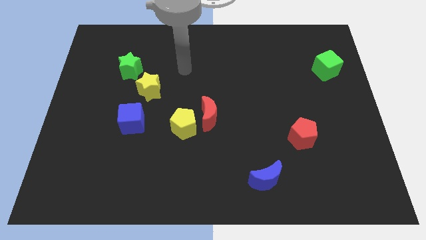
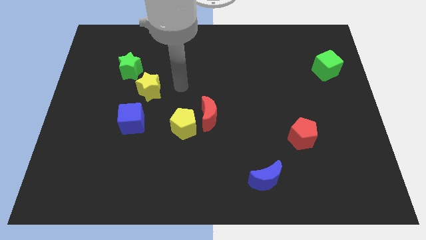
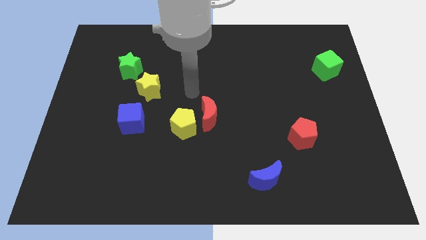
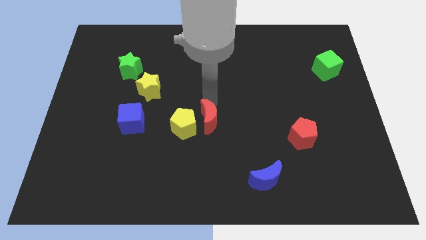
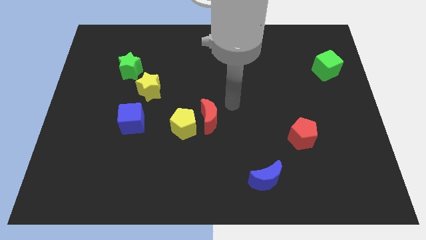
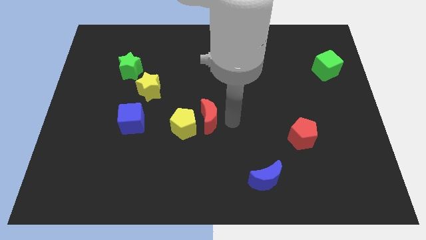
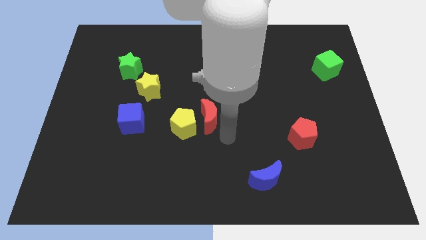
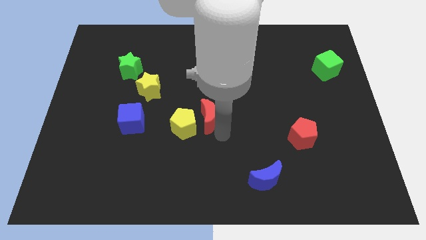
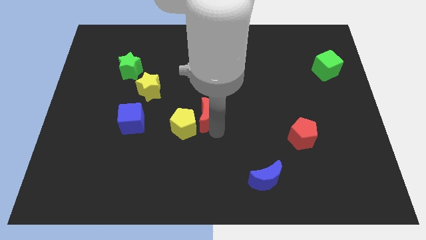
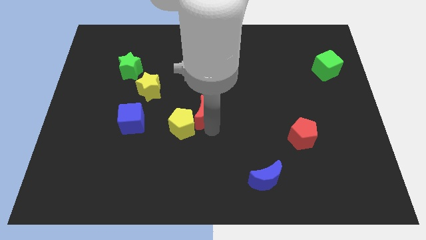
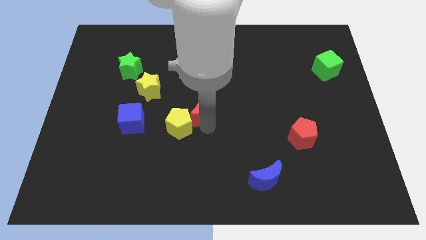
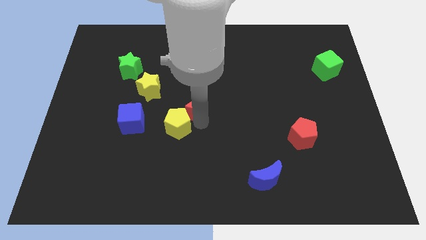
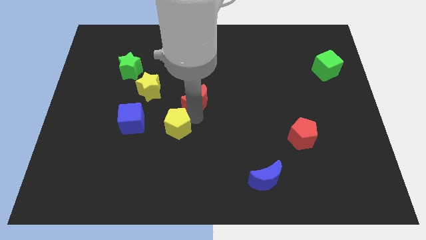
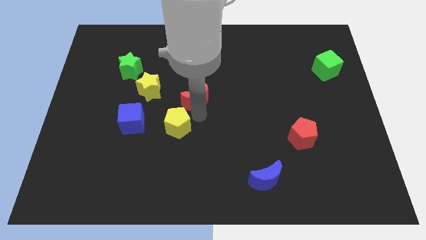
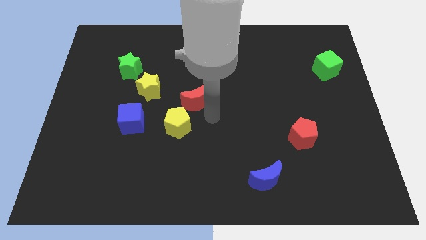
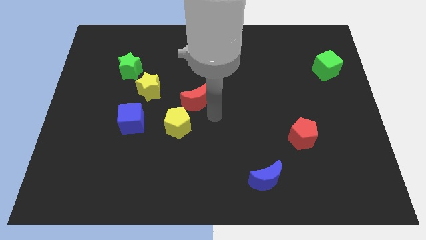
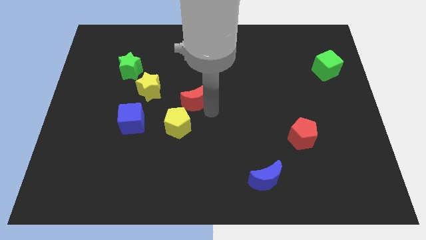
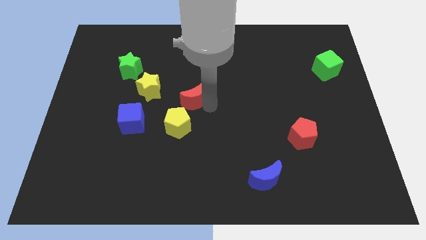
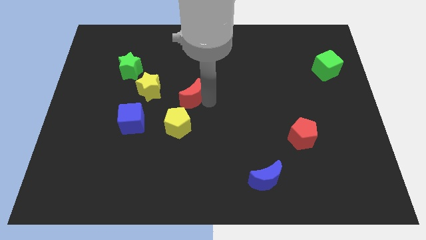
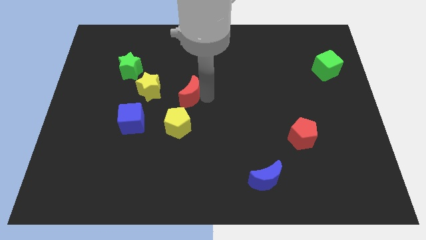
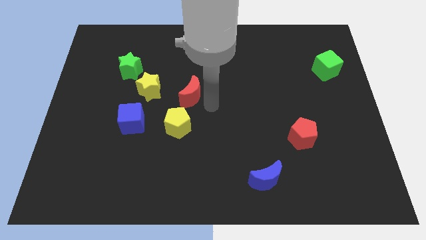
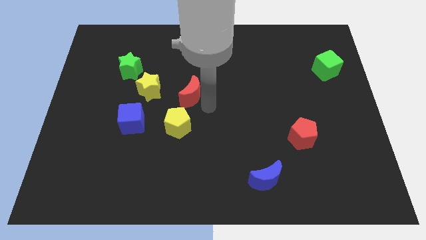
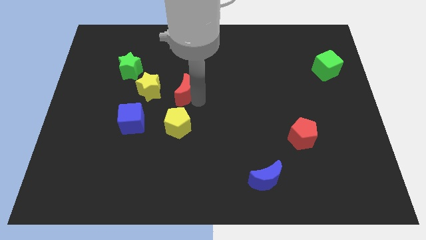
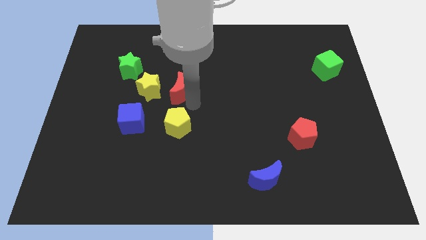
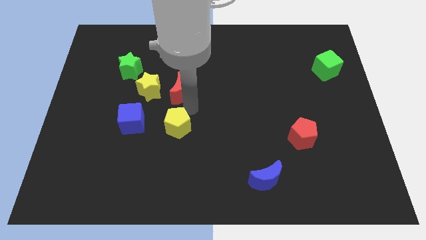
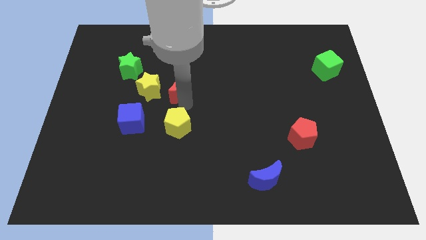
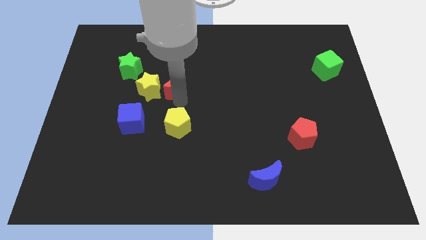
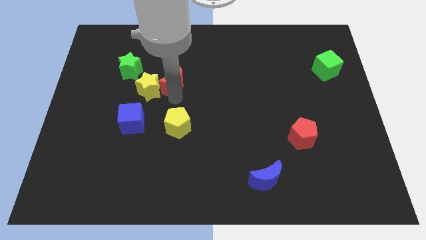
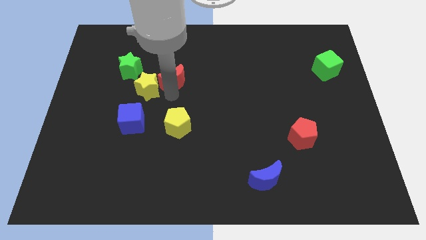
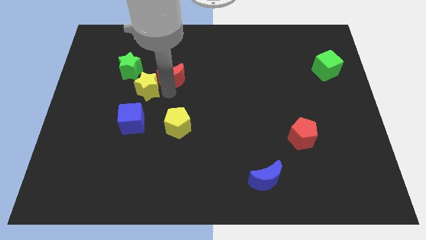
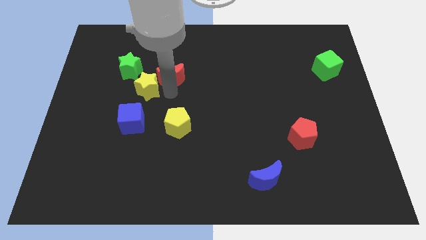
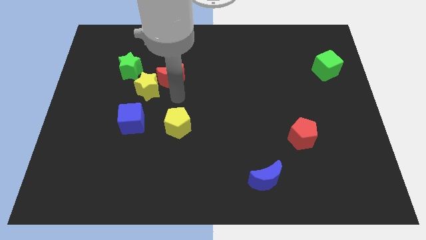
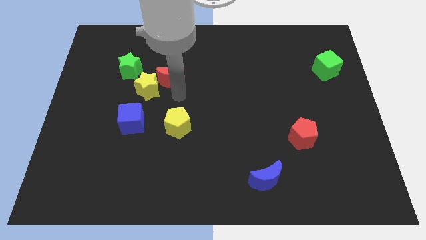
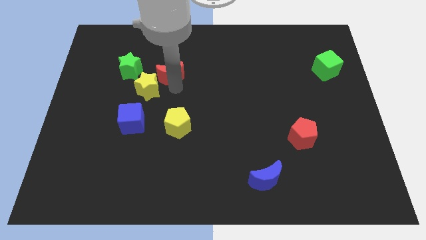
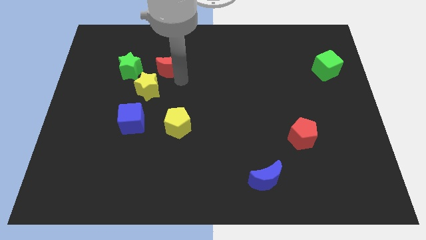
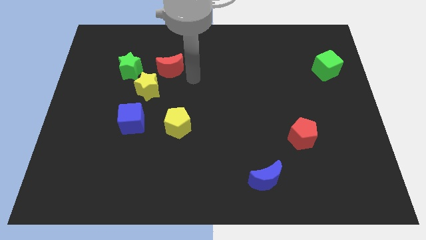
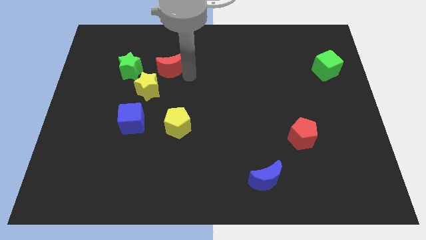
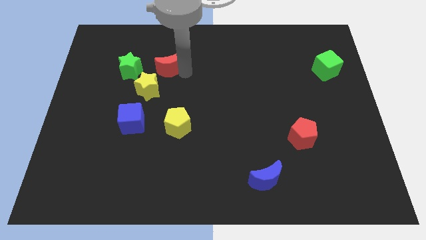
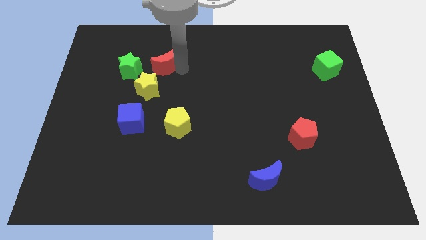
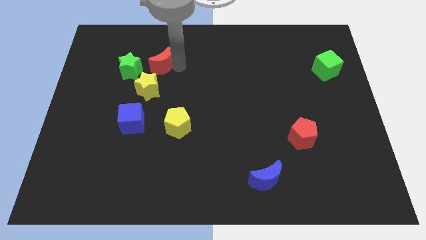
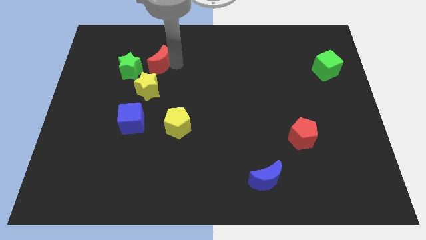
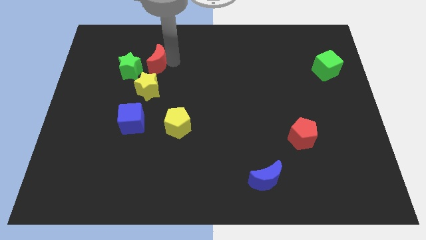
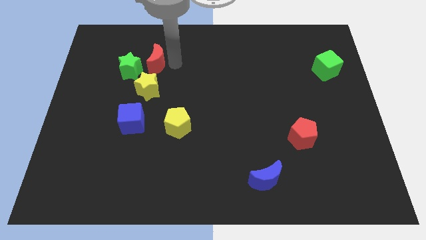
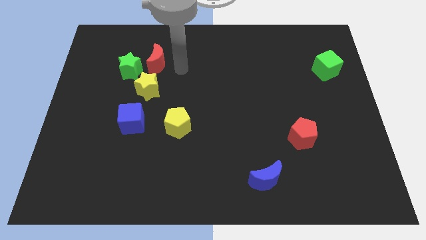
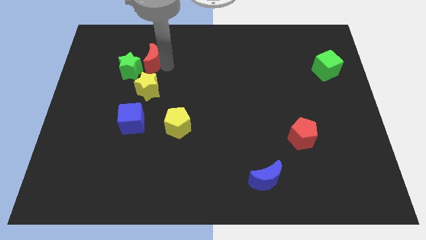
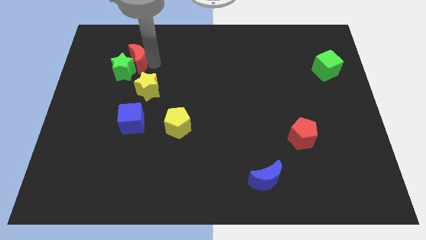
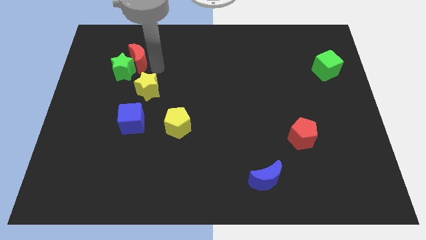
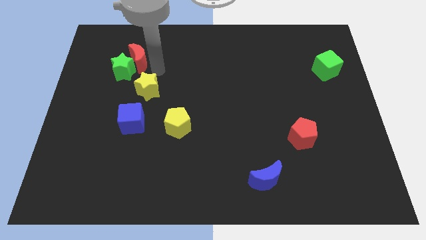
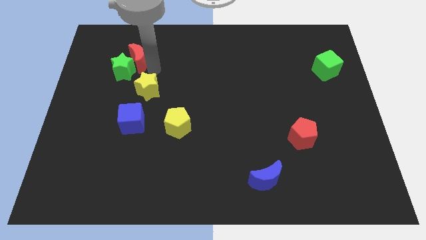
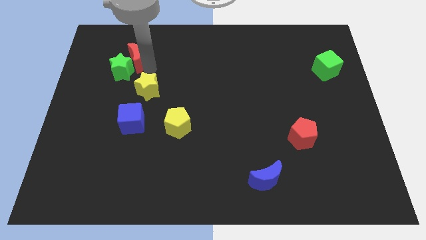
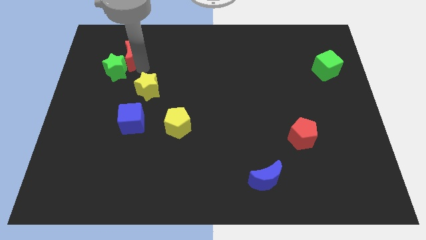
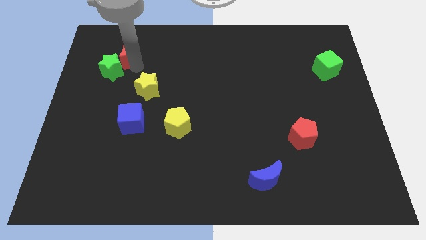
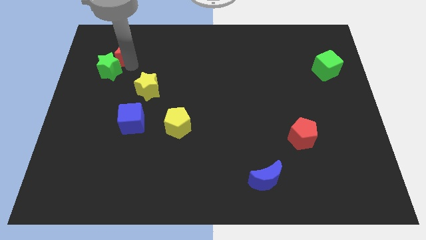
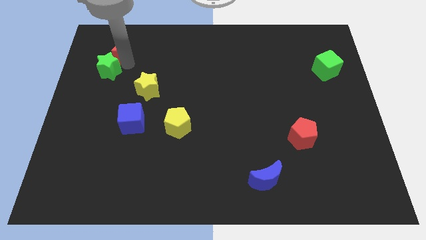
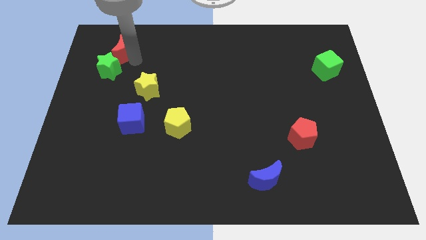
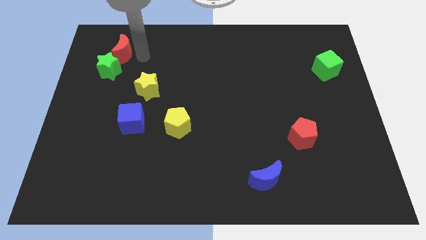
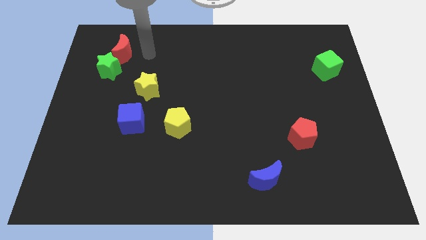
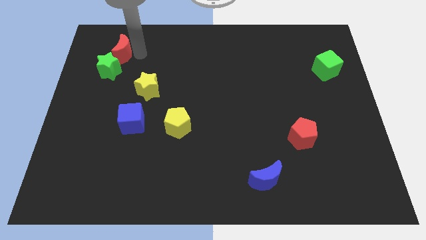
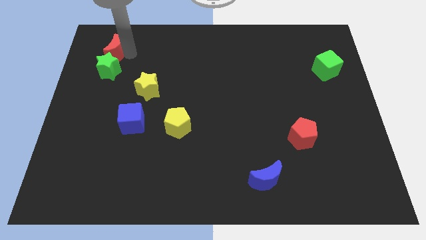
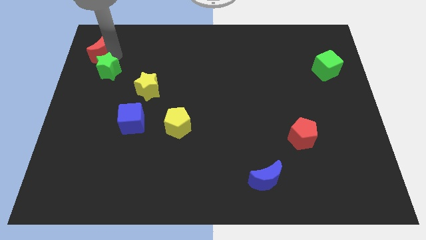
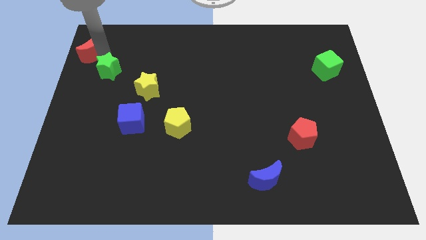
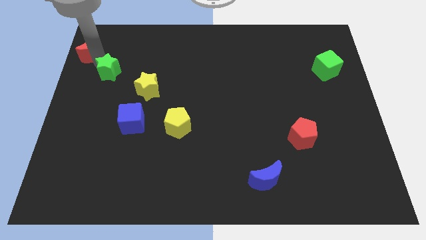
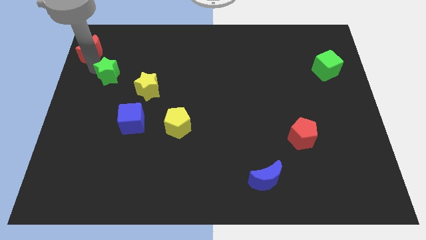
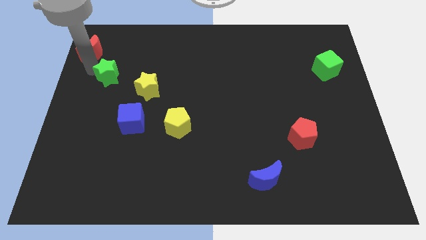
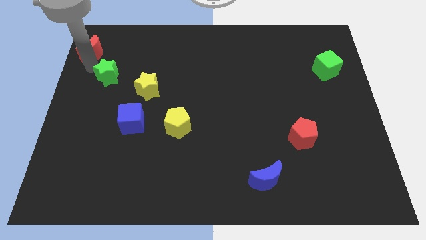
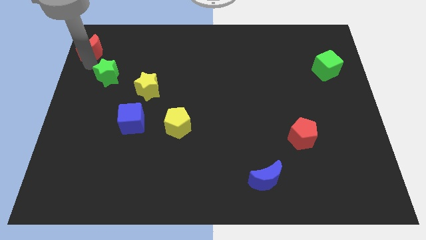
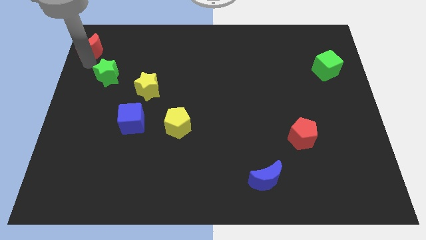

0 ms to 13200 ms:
put the red moon to the upper left corner
